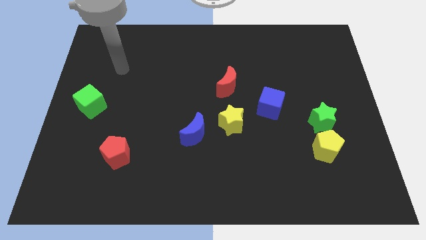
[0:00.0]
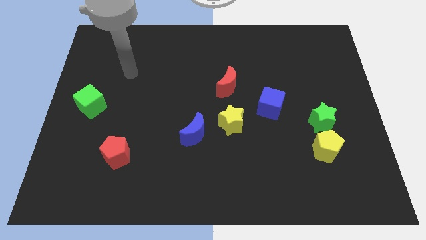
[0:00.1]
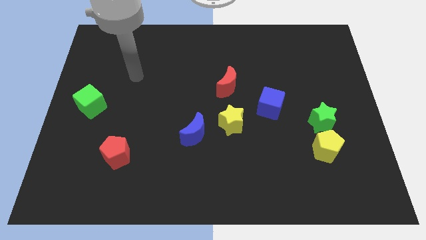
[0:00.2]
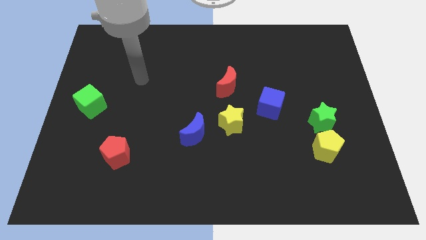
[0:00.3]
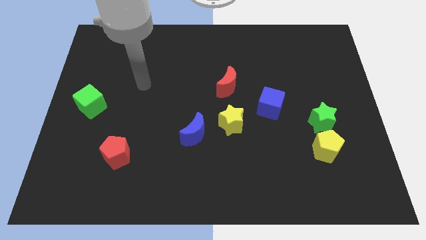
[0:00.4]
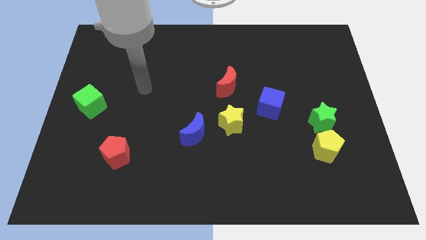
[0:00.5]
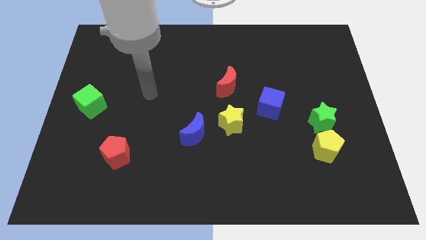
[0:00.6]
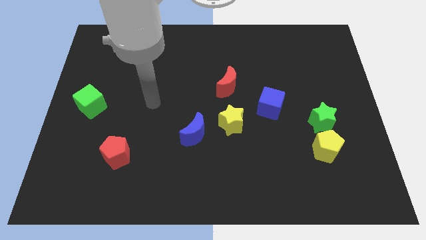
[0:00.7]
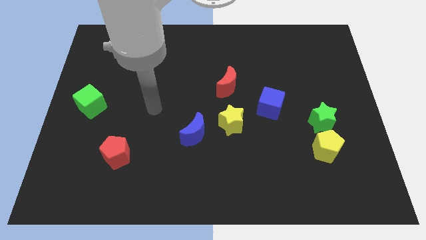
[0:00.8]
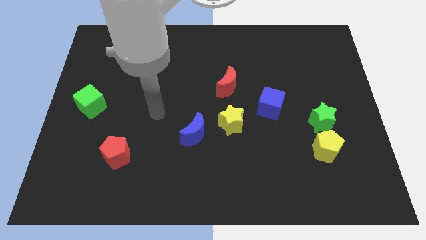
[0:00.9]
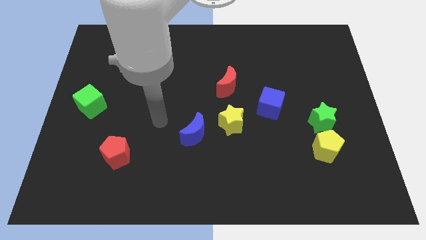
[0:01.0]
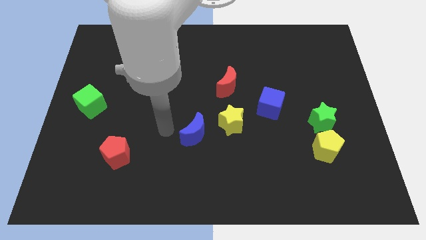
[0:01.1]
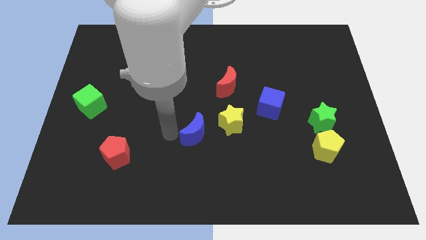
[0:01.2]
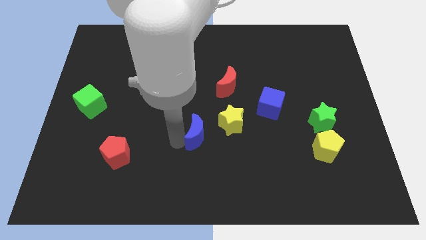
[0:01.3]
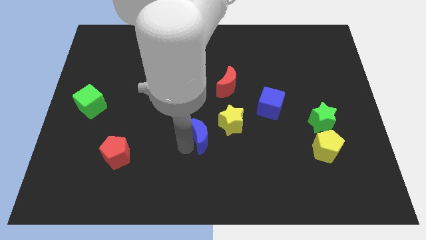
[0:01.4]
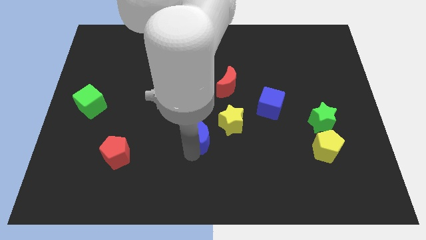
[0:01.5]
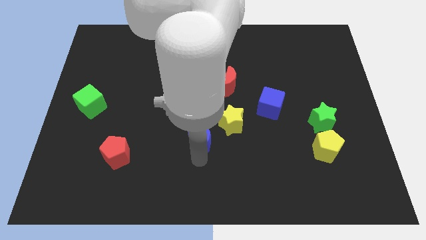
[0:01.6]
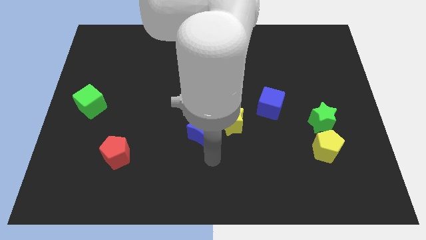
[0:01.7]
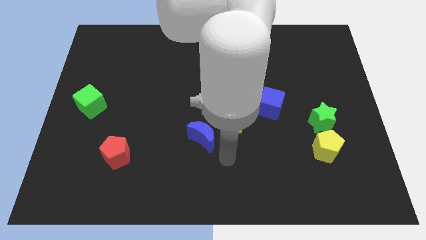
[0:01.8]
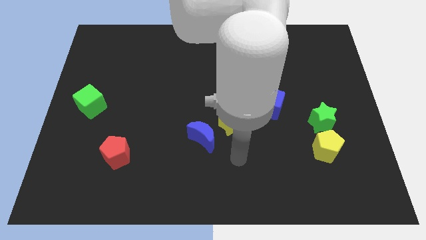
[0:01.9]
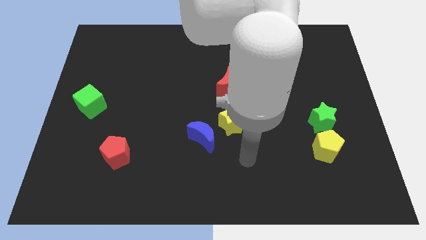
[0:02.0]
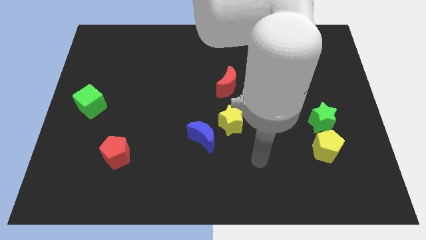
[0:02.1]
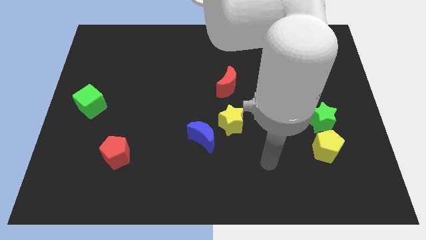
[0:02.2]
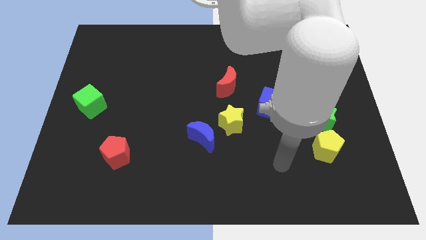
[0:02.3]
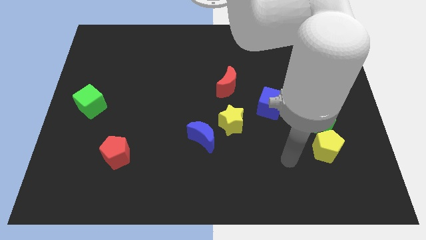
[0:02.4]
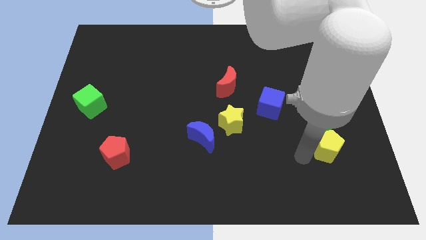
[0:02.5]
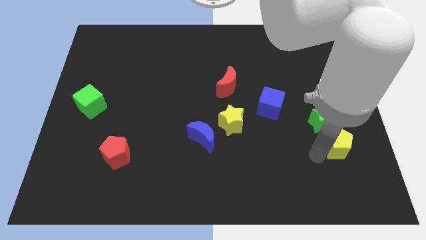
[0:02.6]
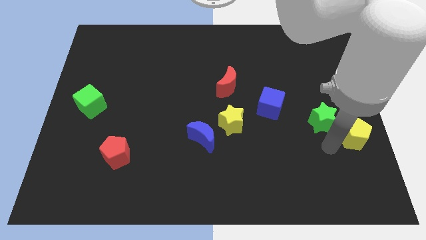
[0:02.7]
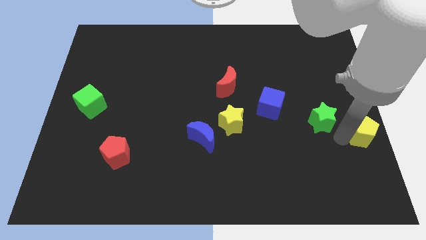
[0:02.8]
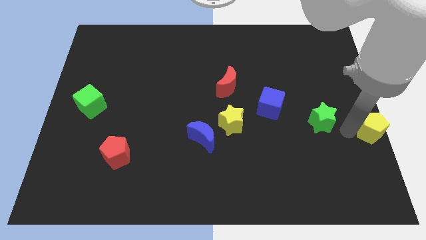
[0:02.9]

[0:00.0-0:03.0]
pull the green star apart from the yellow pentagon

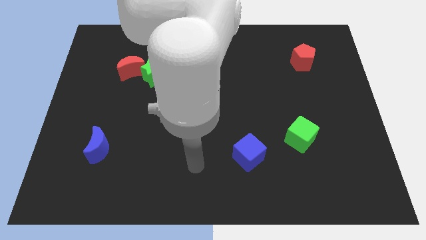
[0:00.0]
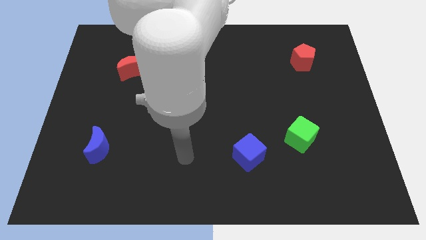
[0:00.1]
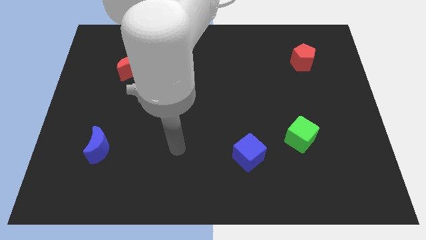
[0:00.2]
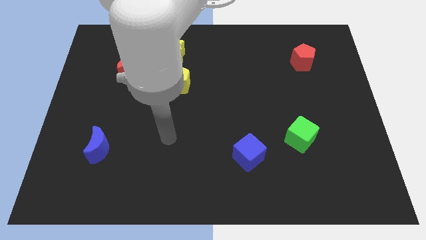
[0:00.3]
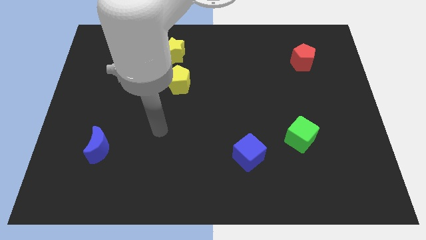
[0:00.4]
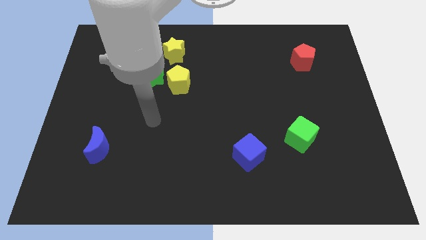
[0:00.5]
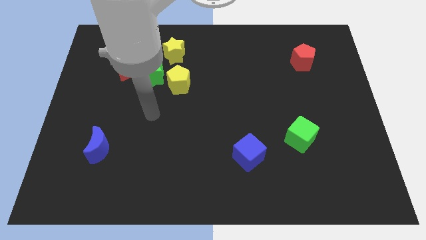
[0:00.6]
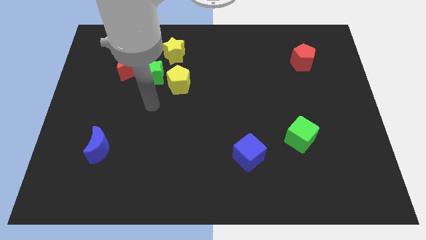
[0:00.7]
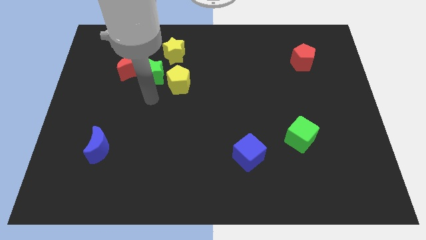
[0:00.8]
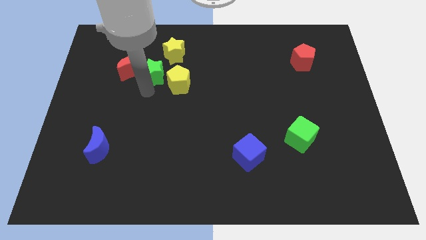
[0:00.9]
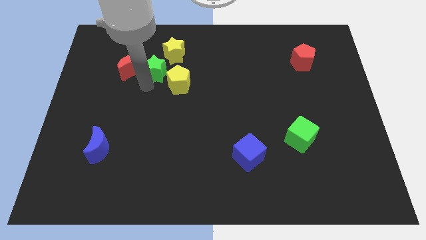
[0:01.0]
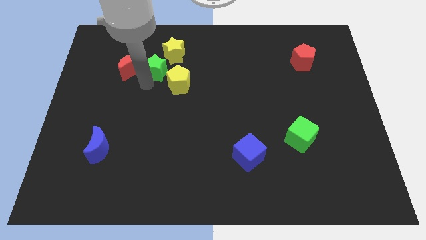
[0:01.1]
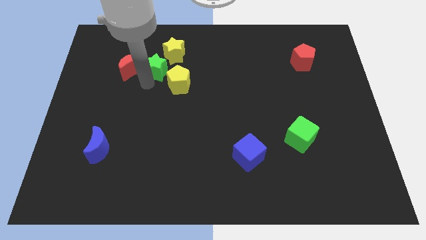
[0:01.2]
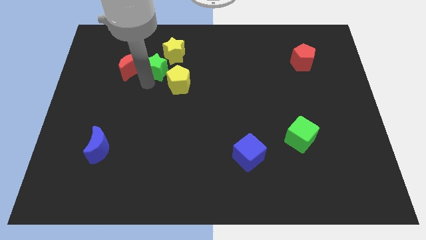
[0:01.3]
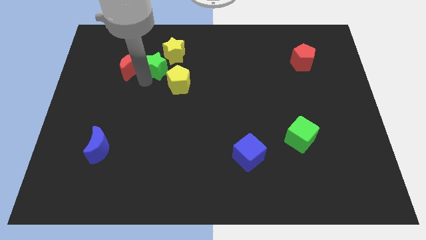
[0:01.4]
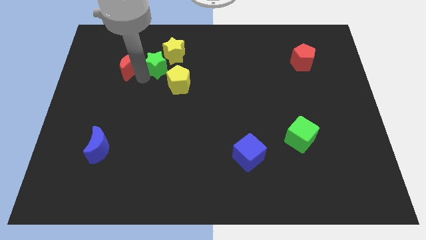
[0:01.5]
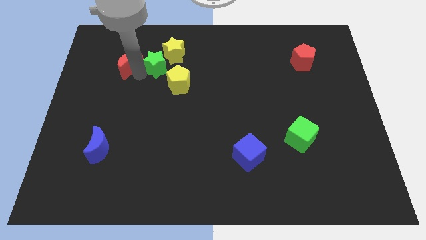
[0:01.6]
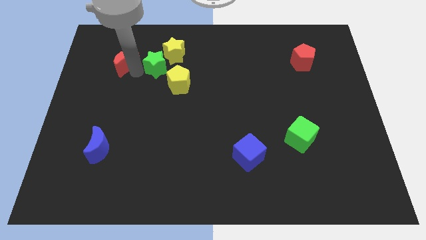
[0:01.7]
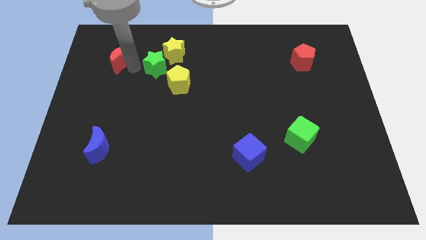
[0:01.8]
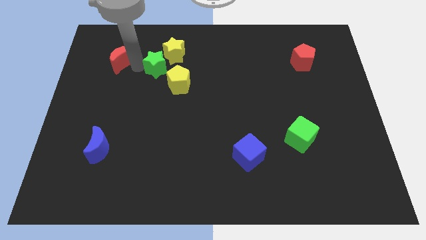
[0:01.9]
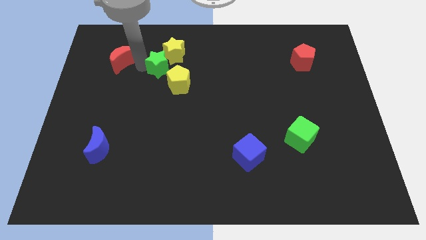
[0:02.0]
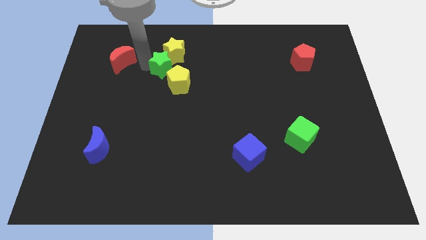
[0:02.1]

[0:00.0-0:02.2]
move the red moon away from the green star

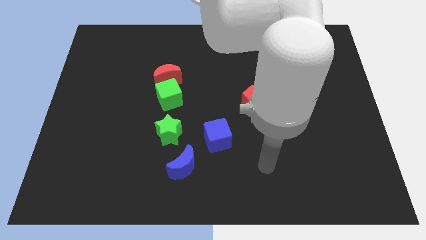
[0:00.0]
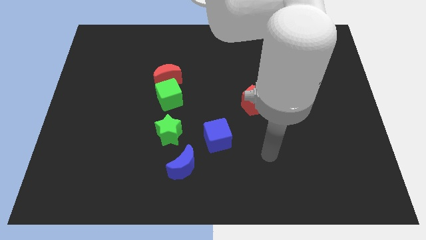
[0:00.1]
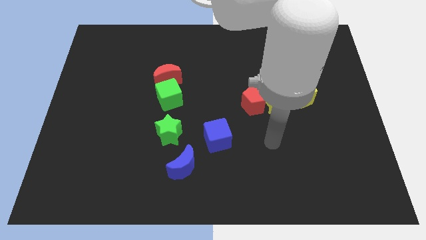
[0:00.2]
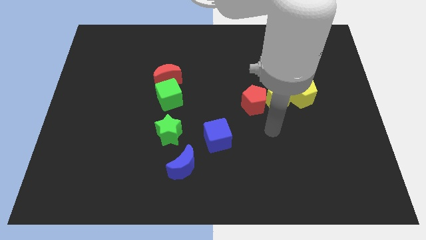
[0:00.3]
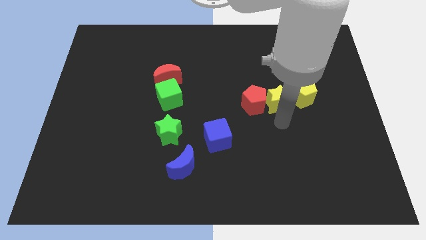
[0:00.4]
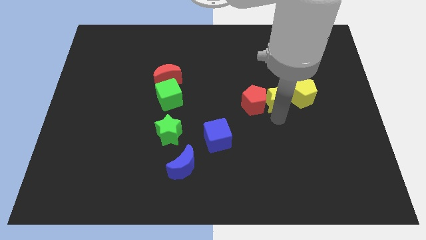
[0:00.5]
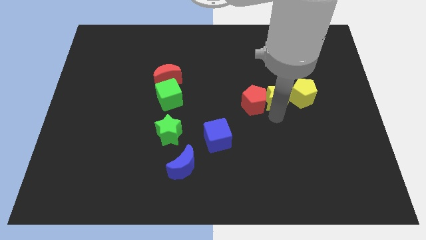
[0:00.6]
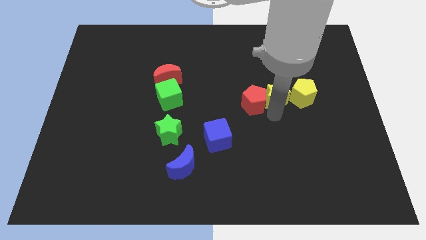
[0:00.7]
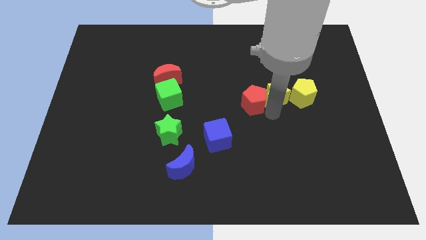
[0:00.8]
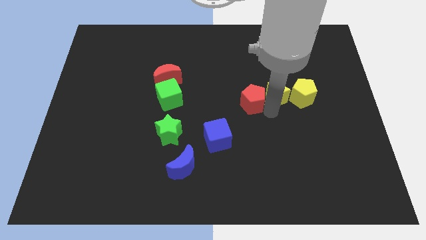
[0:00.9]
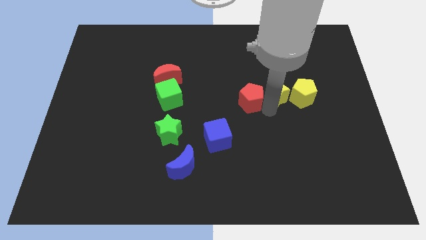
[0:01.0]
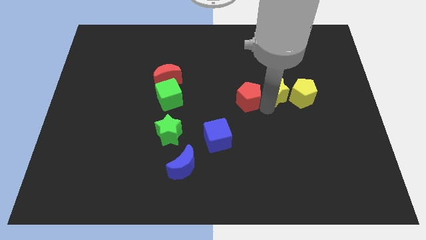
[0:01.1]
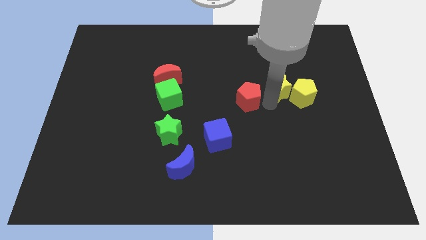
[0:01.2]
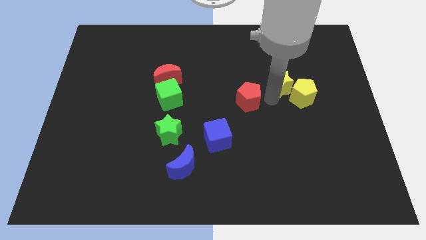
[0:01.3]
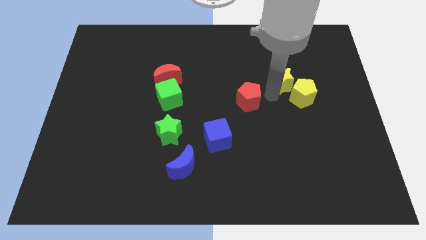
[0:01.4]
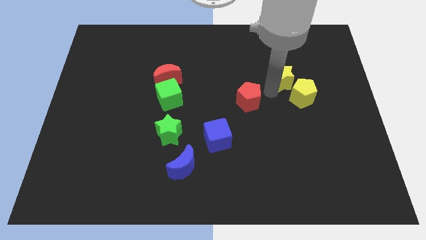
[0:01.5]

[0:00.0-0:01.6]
pull the red pentagon apart from the yellow star

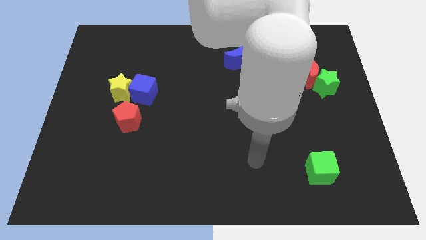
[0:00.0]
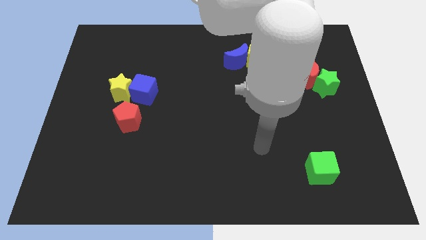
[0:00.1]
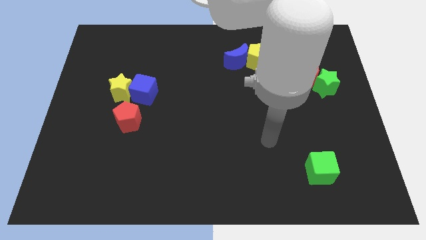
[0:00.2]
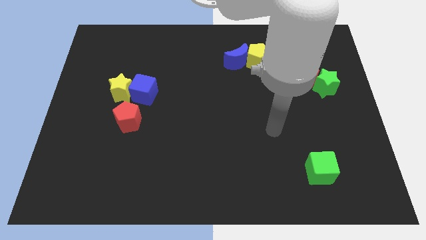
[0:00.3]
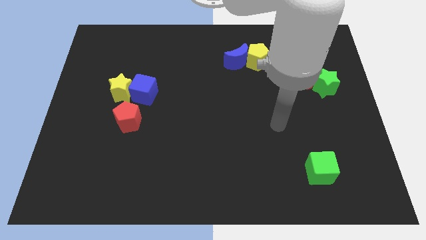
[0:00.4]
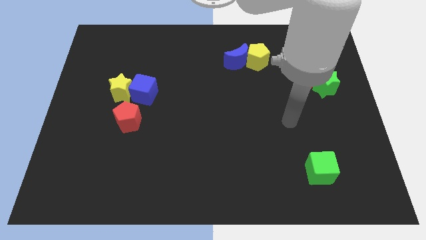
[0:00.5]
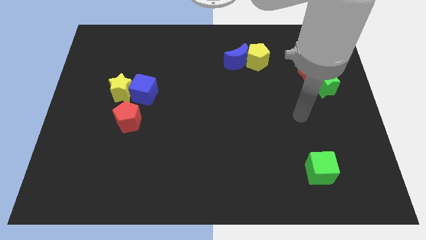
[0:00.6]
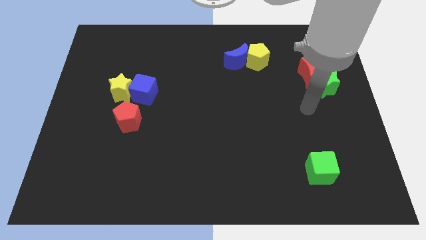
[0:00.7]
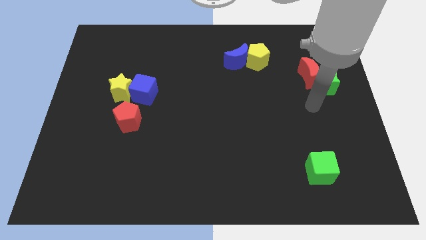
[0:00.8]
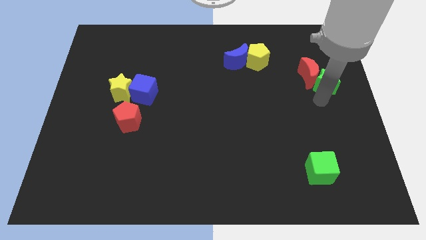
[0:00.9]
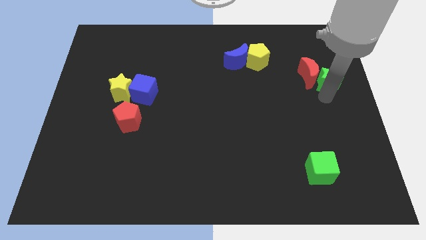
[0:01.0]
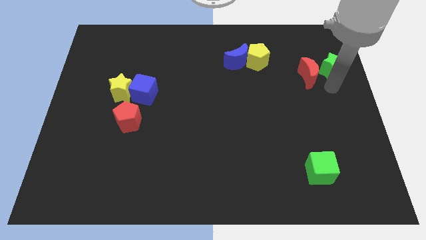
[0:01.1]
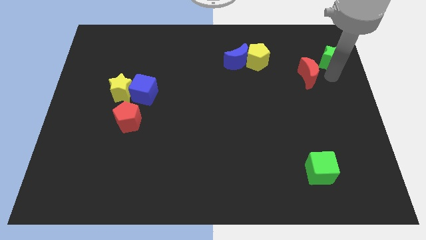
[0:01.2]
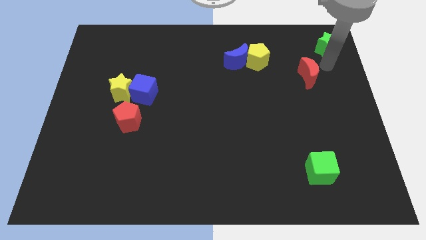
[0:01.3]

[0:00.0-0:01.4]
pull the red moon apart from the green star

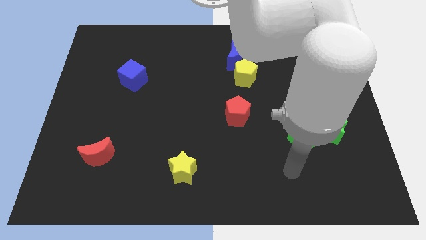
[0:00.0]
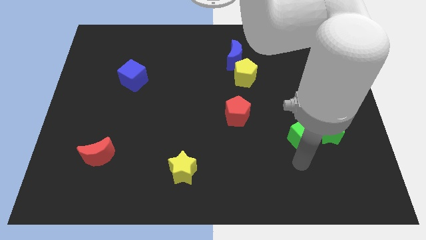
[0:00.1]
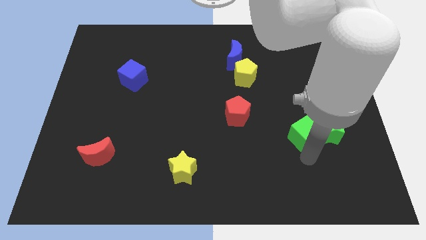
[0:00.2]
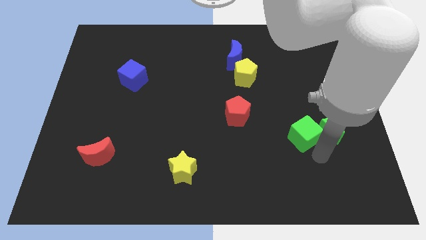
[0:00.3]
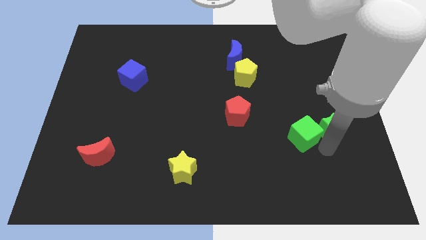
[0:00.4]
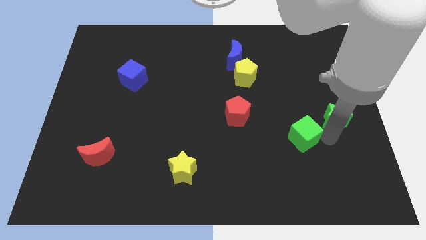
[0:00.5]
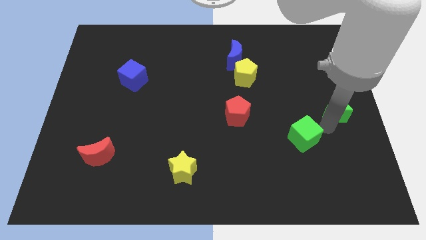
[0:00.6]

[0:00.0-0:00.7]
separate the green cube from the green star

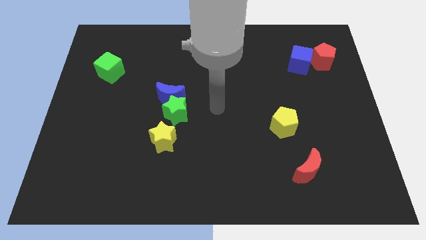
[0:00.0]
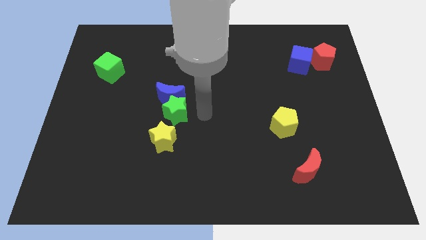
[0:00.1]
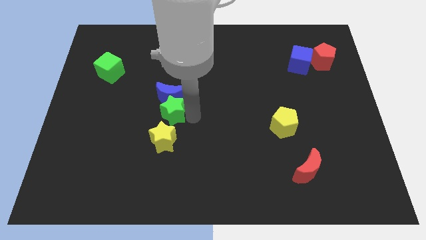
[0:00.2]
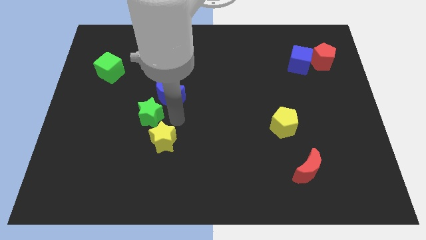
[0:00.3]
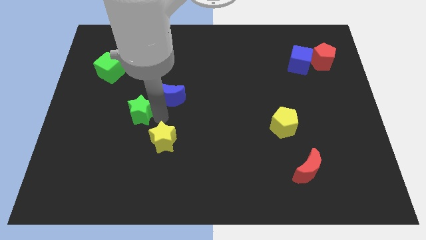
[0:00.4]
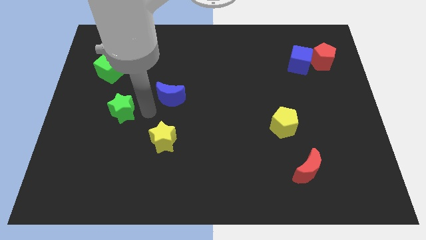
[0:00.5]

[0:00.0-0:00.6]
move the blue moon away from the green star
